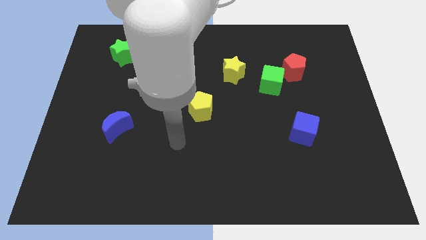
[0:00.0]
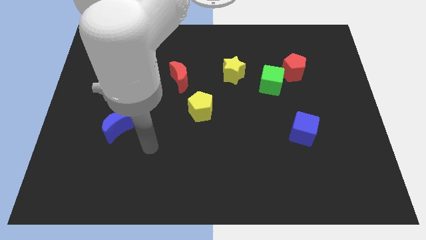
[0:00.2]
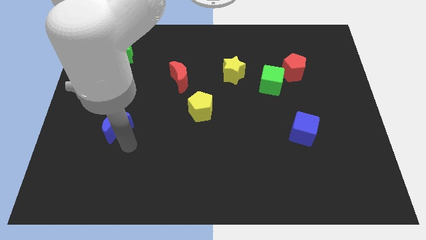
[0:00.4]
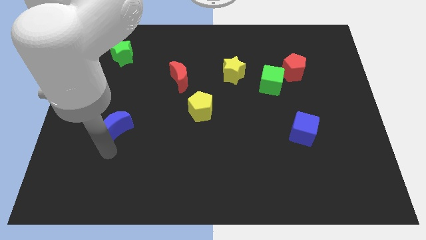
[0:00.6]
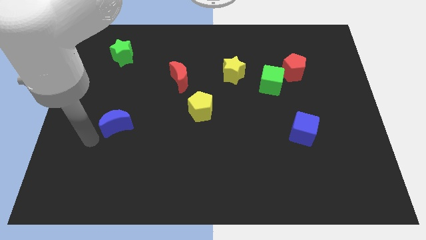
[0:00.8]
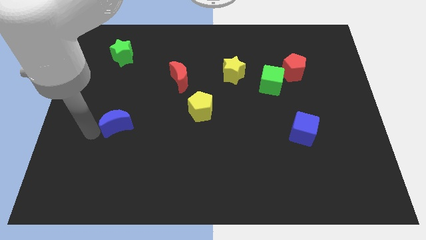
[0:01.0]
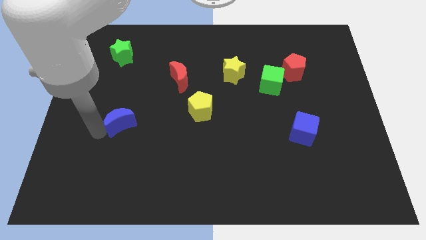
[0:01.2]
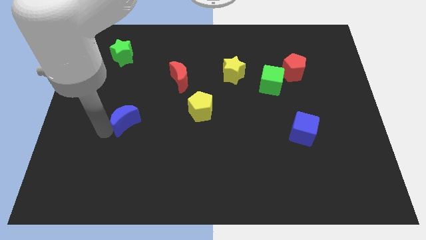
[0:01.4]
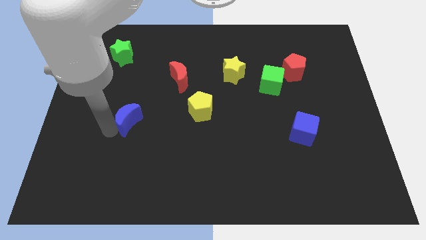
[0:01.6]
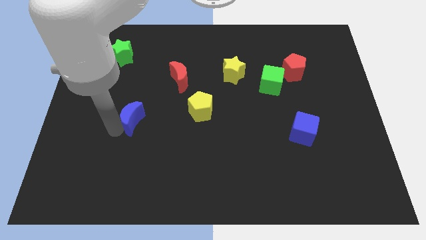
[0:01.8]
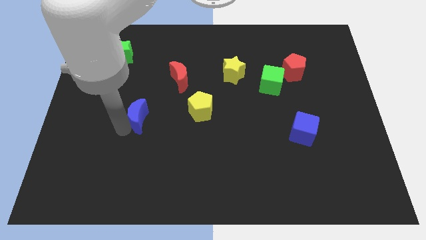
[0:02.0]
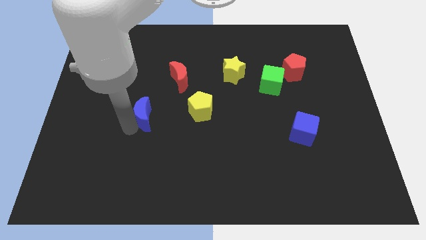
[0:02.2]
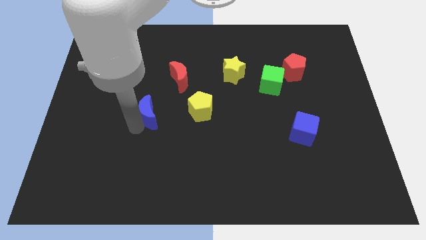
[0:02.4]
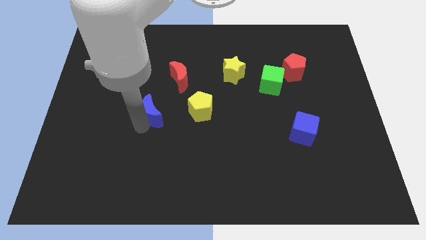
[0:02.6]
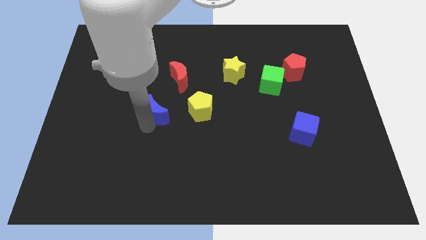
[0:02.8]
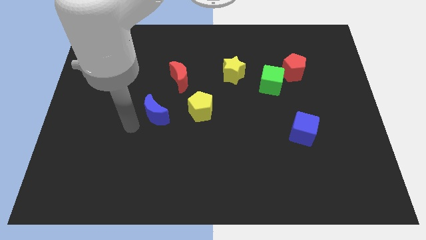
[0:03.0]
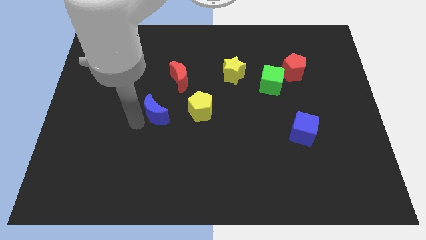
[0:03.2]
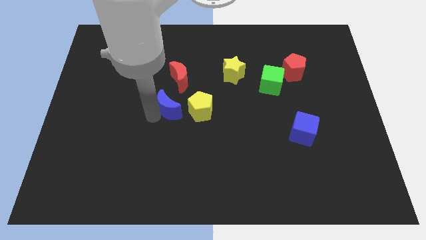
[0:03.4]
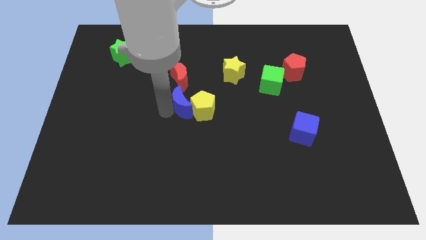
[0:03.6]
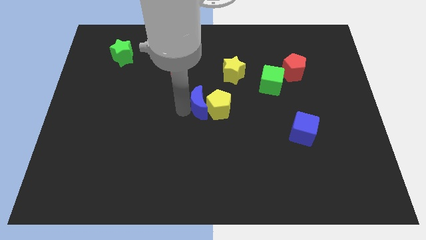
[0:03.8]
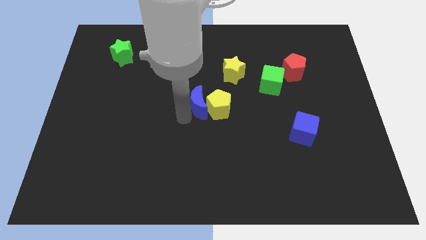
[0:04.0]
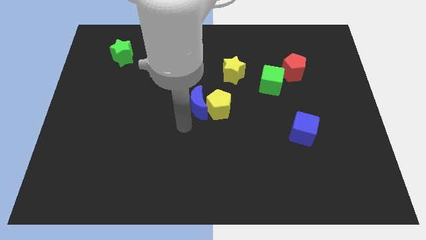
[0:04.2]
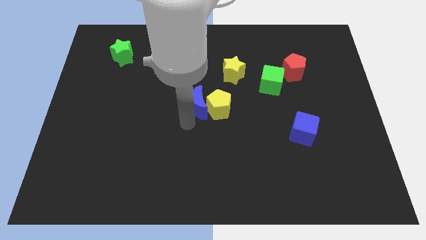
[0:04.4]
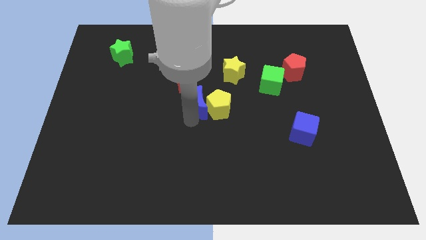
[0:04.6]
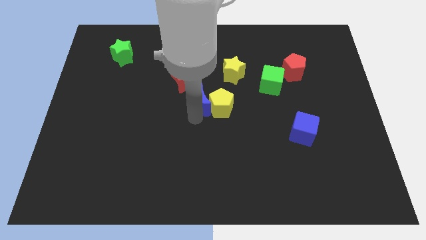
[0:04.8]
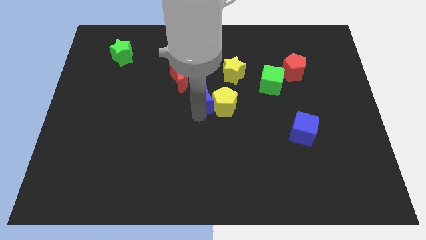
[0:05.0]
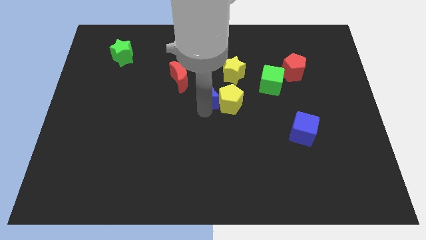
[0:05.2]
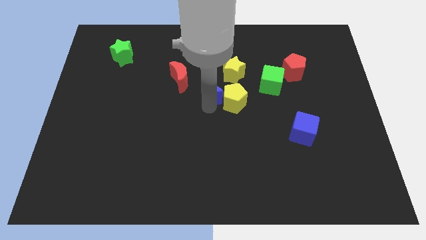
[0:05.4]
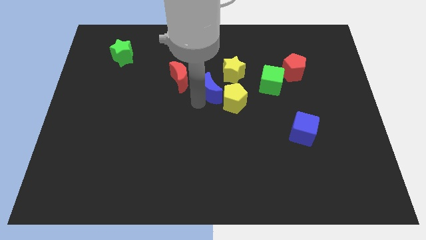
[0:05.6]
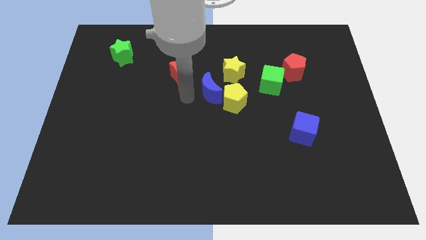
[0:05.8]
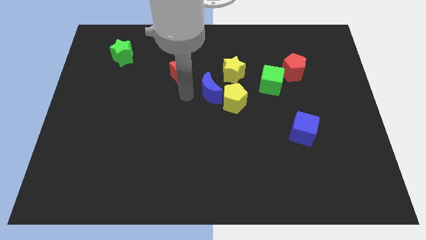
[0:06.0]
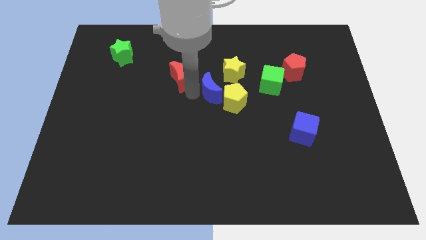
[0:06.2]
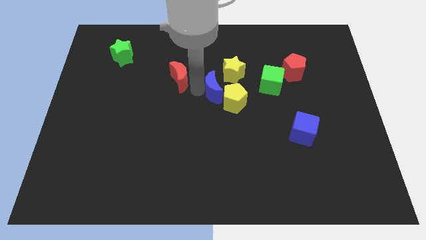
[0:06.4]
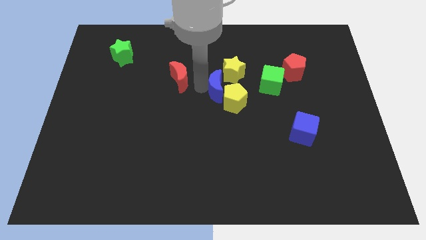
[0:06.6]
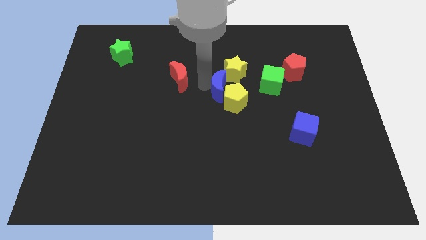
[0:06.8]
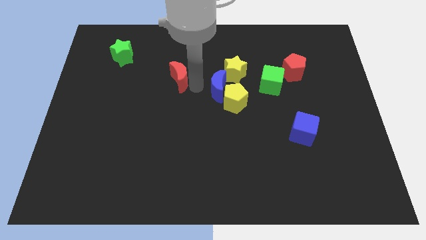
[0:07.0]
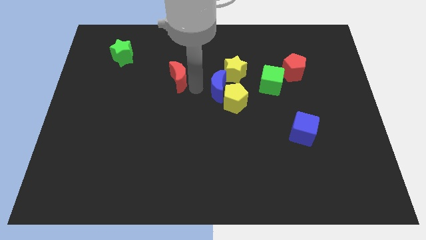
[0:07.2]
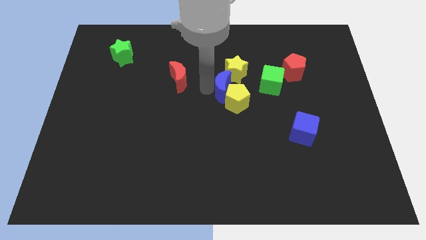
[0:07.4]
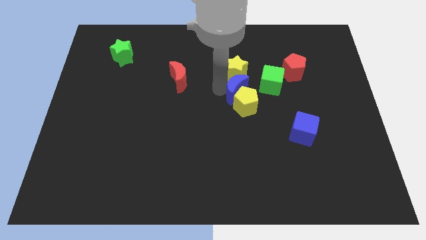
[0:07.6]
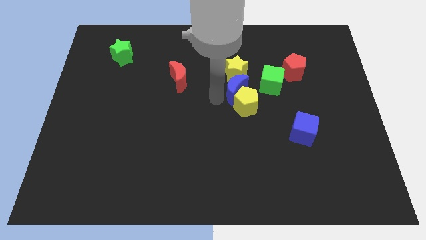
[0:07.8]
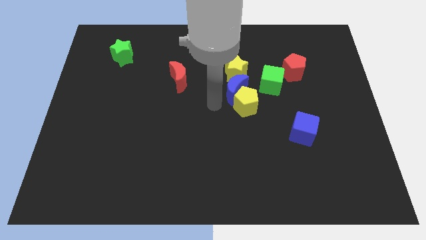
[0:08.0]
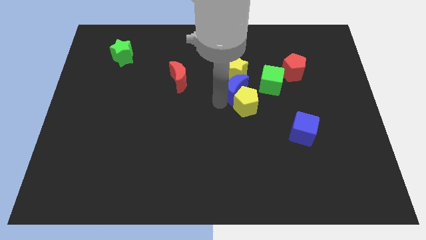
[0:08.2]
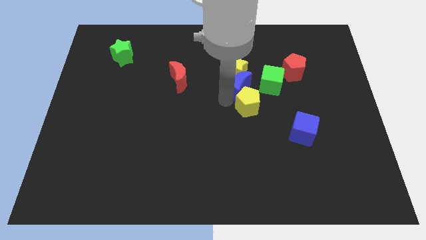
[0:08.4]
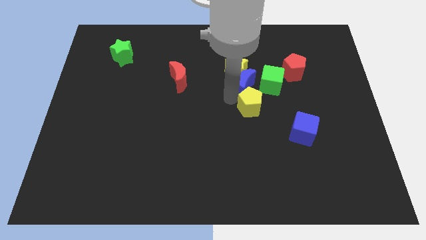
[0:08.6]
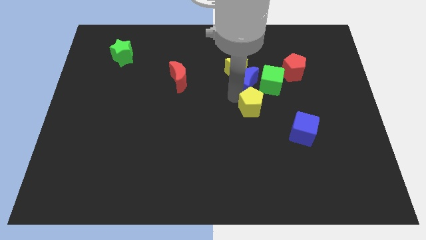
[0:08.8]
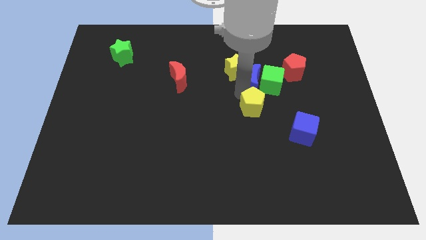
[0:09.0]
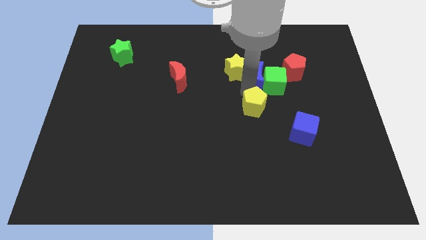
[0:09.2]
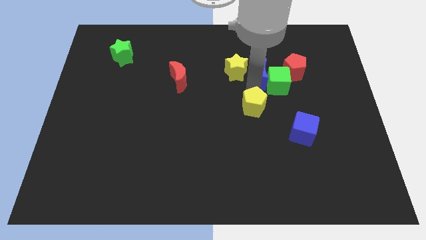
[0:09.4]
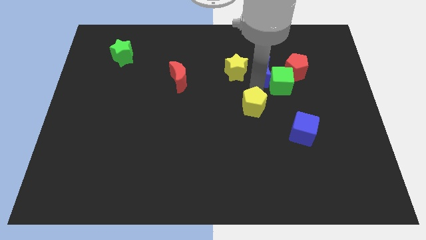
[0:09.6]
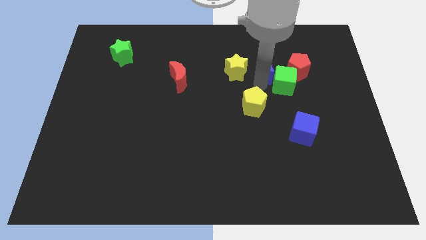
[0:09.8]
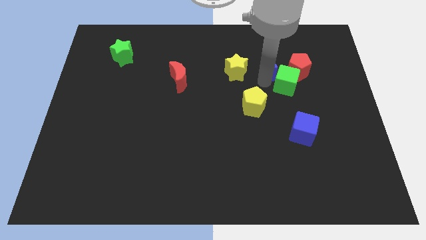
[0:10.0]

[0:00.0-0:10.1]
move the blue moon diagonally up and to the left of the red pentagon

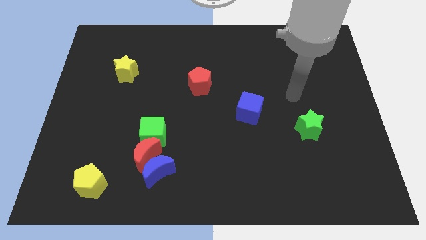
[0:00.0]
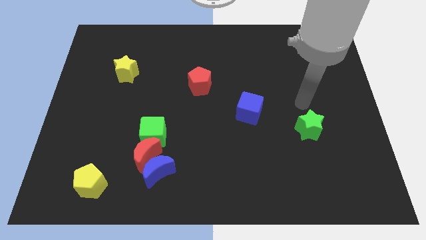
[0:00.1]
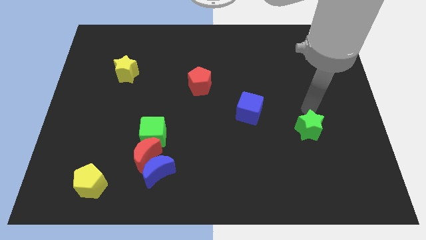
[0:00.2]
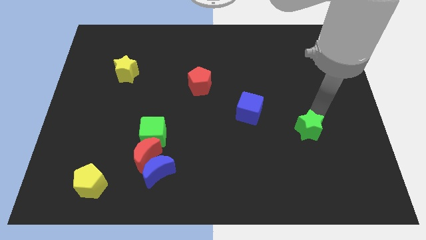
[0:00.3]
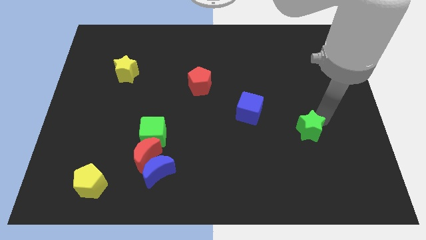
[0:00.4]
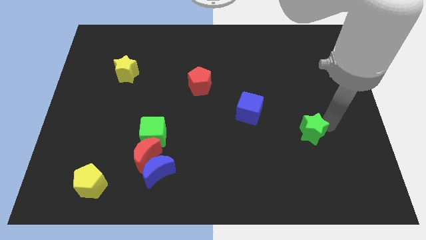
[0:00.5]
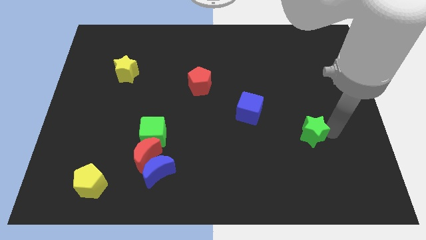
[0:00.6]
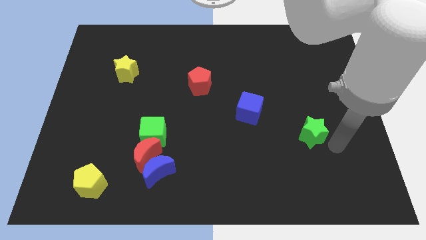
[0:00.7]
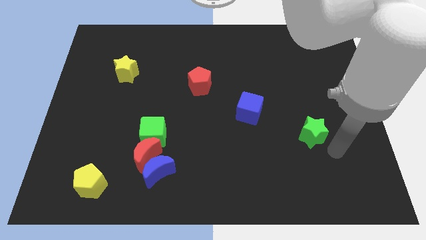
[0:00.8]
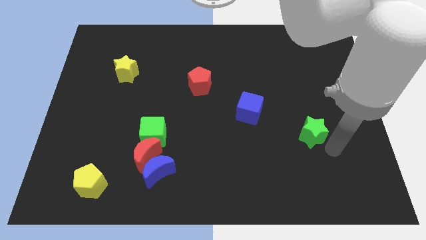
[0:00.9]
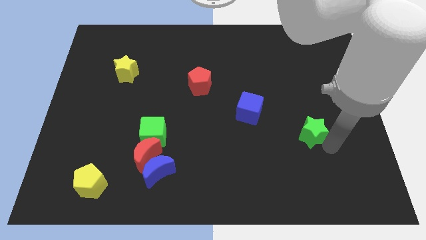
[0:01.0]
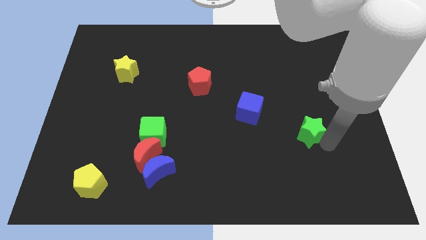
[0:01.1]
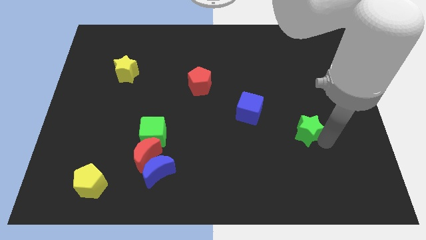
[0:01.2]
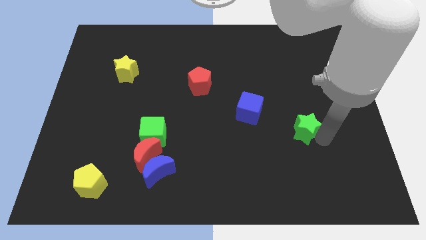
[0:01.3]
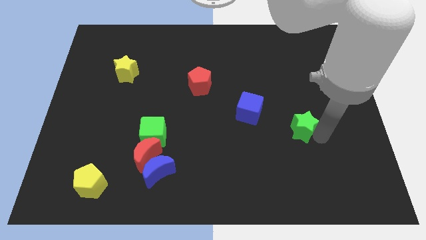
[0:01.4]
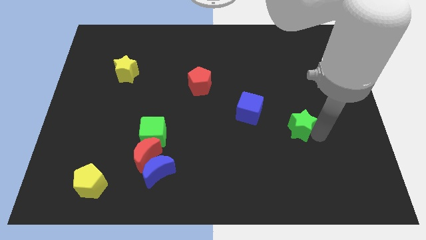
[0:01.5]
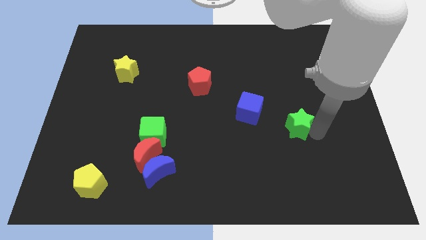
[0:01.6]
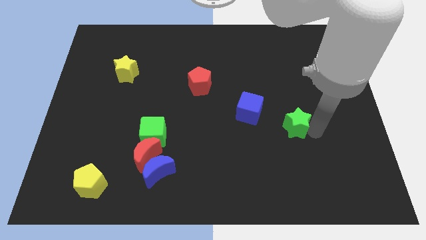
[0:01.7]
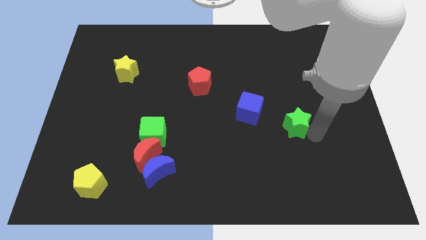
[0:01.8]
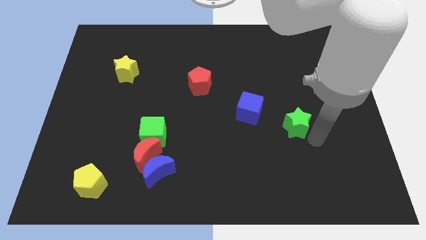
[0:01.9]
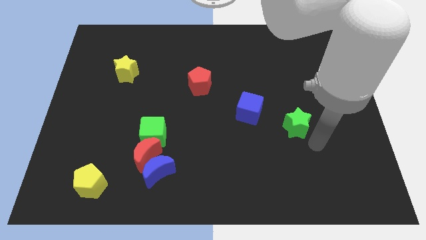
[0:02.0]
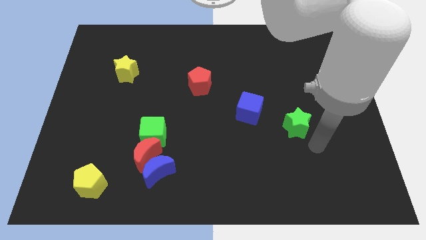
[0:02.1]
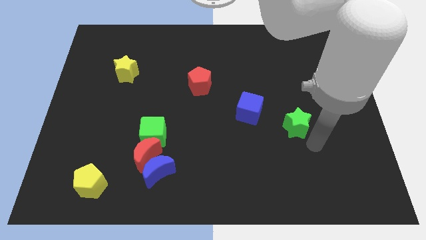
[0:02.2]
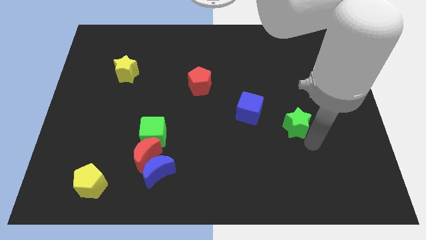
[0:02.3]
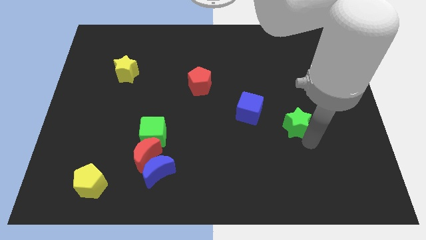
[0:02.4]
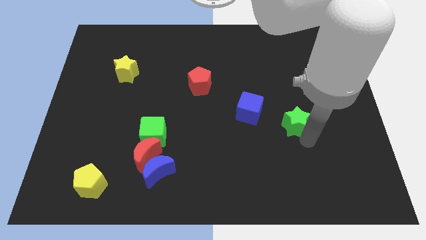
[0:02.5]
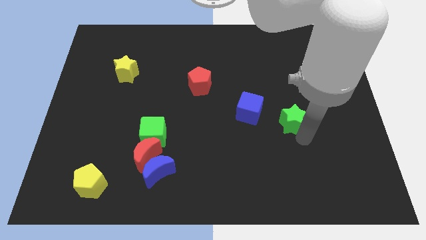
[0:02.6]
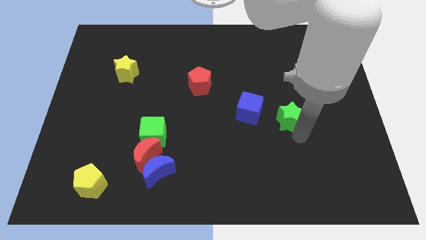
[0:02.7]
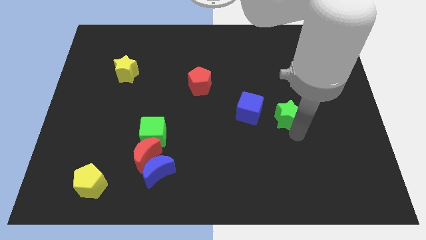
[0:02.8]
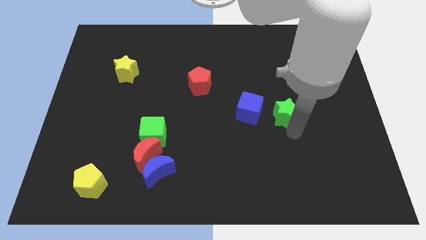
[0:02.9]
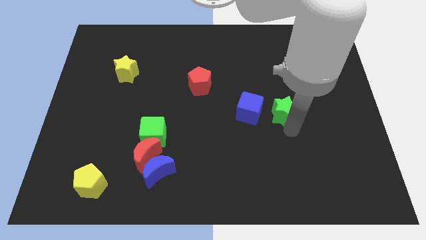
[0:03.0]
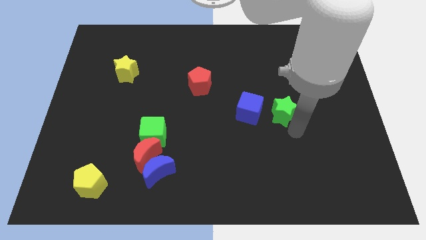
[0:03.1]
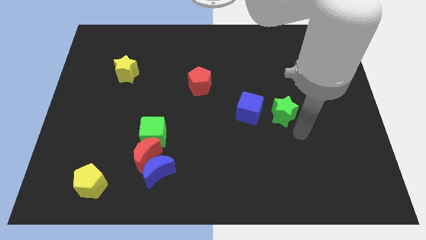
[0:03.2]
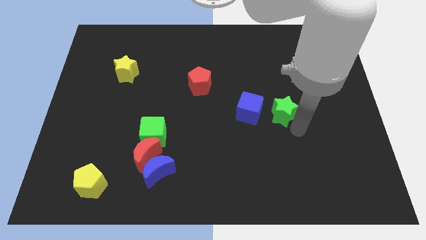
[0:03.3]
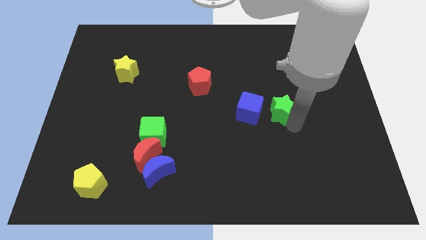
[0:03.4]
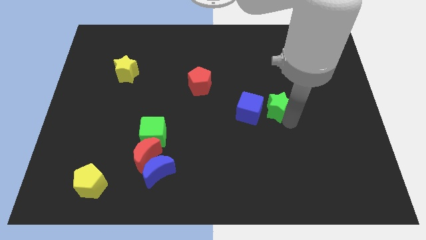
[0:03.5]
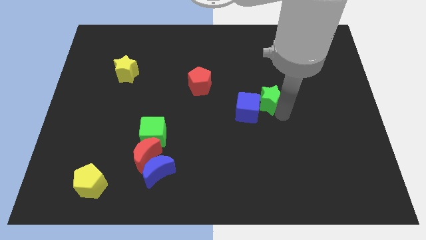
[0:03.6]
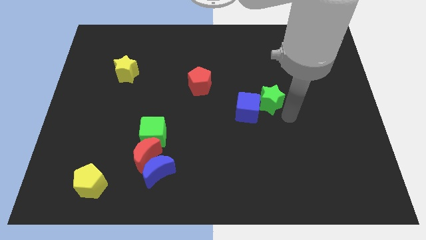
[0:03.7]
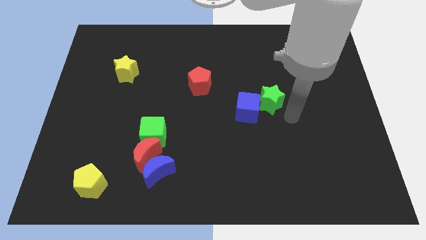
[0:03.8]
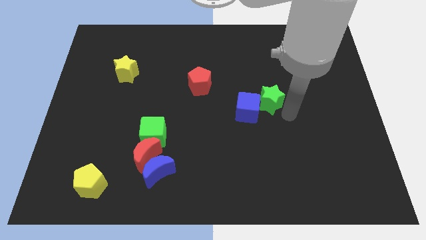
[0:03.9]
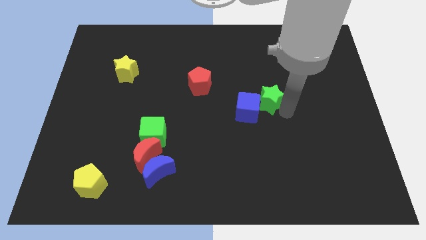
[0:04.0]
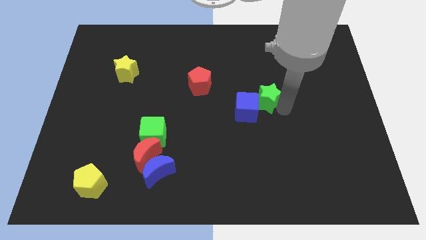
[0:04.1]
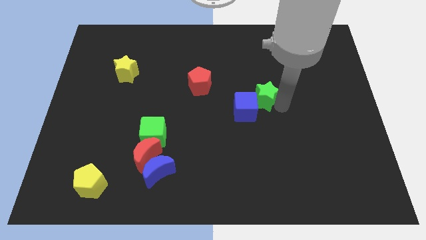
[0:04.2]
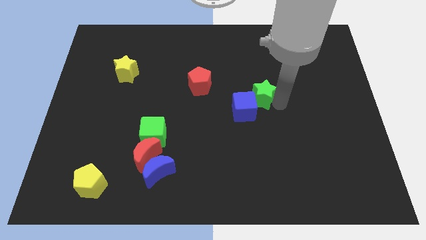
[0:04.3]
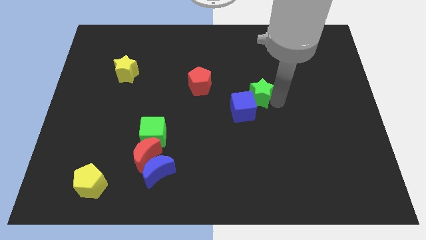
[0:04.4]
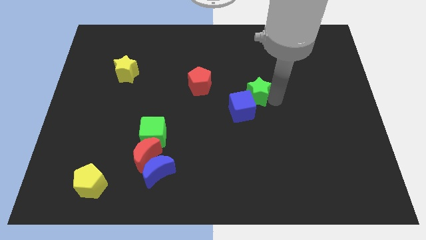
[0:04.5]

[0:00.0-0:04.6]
move the green star to the right side of the red pentagon
